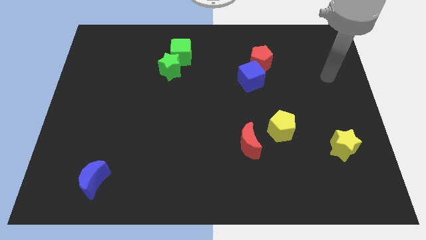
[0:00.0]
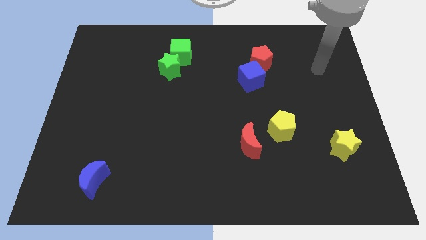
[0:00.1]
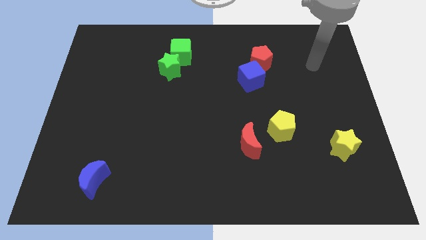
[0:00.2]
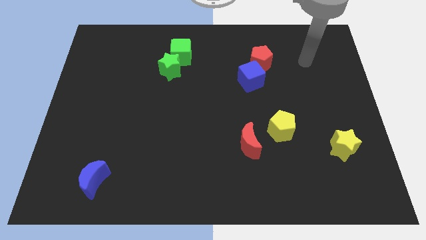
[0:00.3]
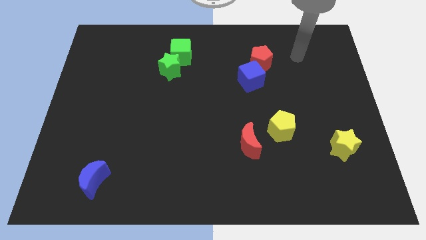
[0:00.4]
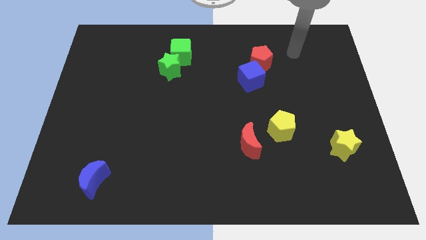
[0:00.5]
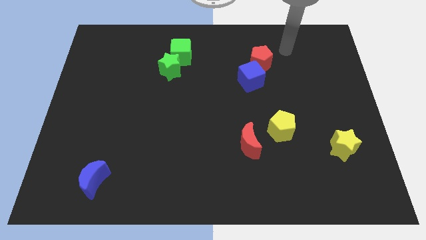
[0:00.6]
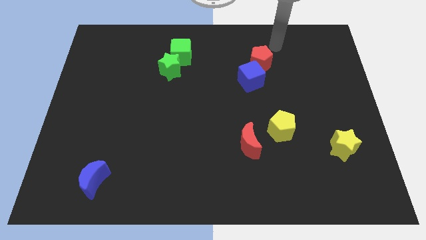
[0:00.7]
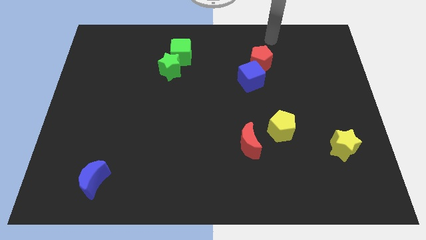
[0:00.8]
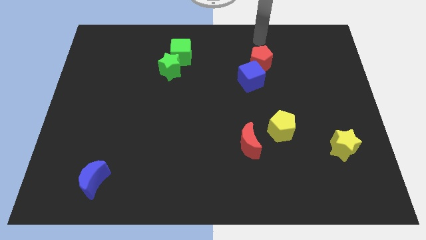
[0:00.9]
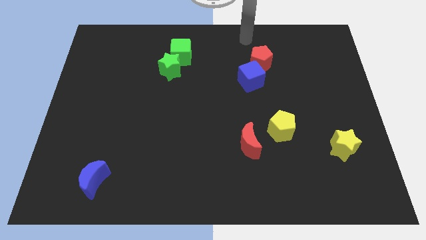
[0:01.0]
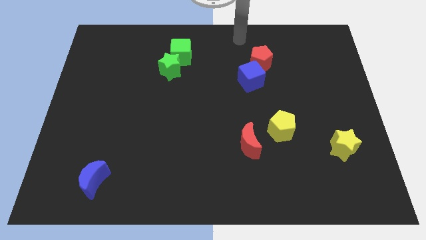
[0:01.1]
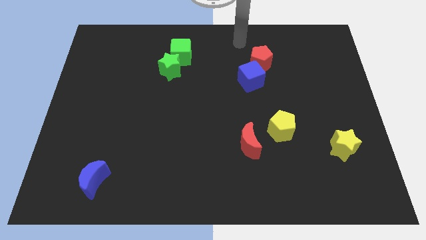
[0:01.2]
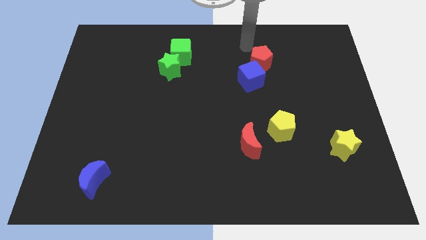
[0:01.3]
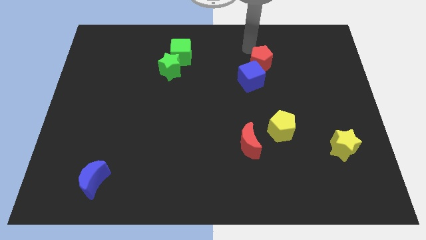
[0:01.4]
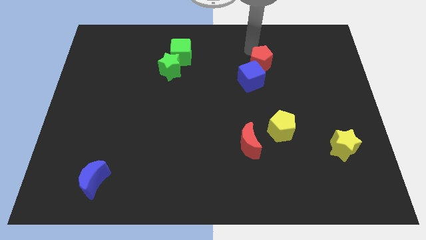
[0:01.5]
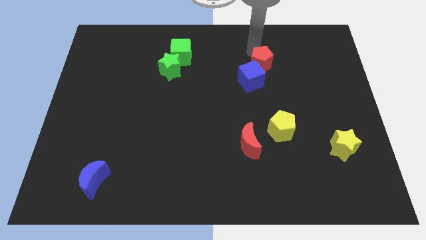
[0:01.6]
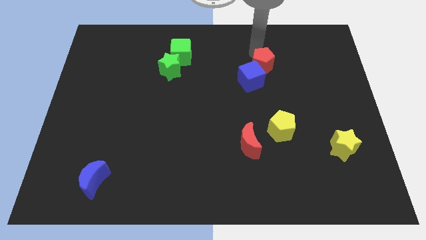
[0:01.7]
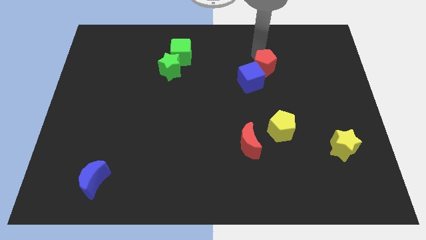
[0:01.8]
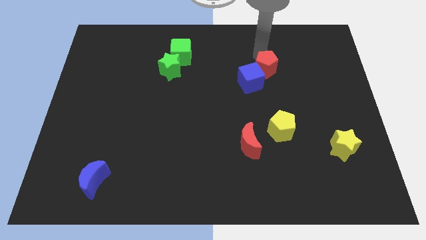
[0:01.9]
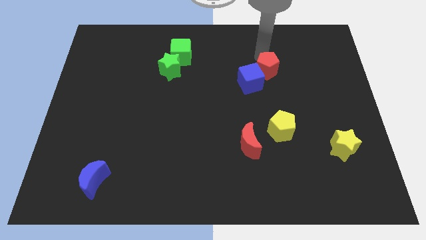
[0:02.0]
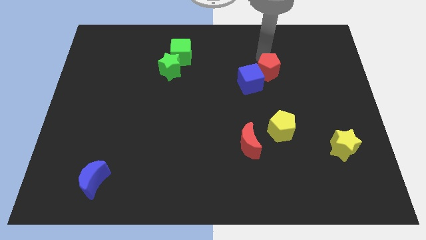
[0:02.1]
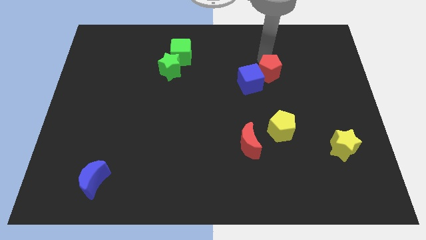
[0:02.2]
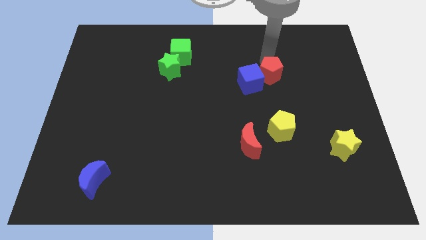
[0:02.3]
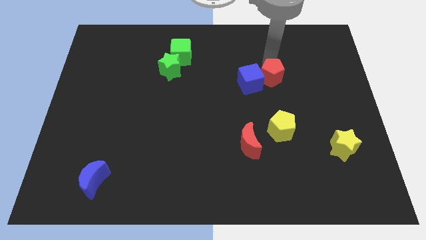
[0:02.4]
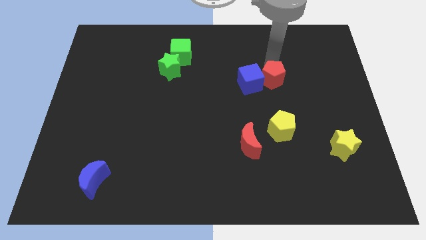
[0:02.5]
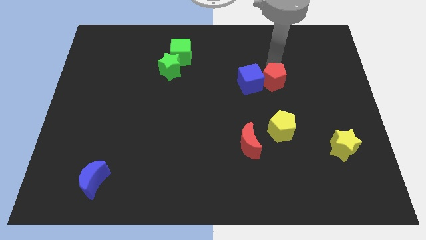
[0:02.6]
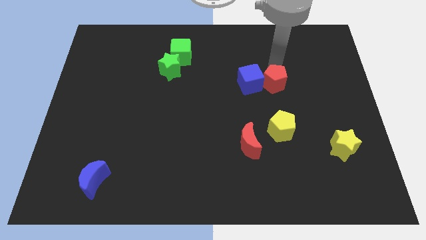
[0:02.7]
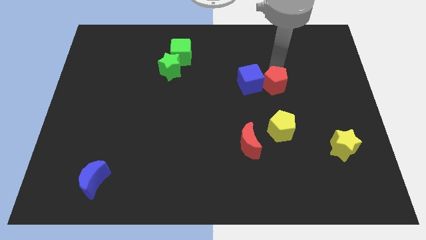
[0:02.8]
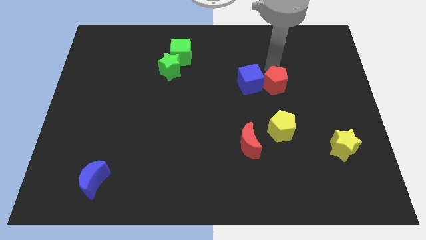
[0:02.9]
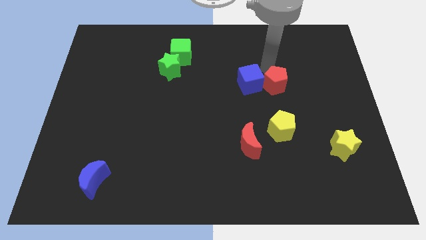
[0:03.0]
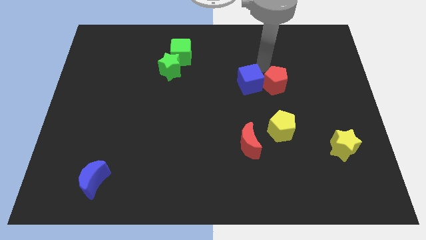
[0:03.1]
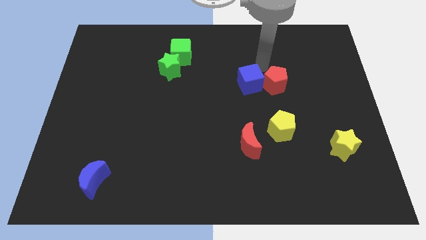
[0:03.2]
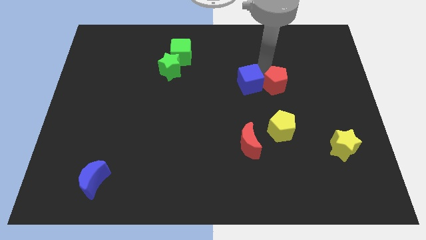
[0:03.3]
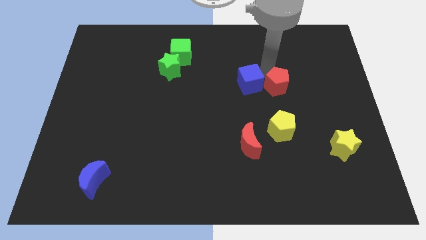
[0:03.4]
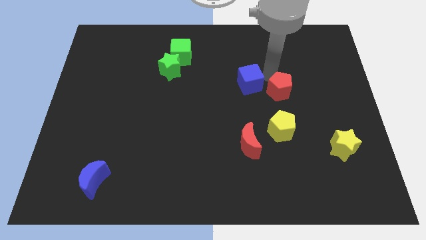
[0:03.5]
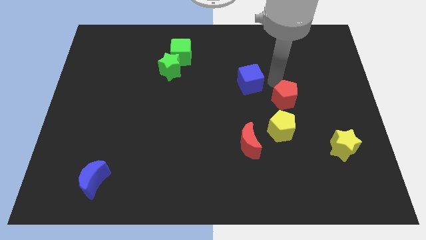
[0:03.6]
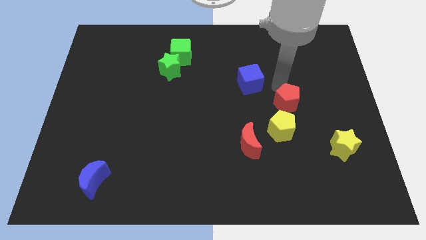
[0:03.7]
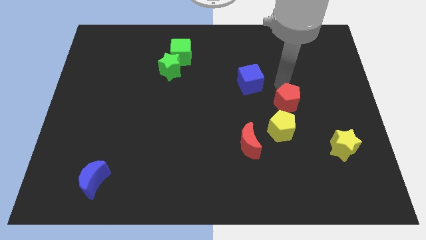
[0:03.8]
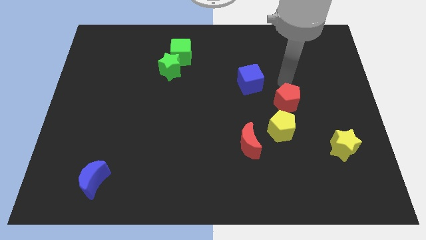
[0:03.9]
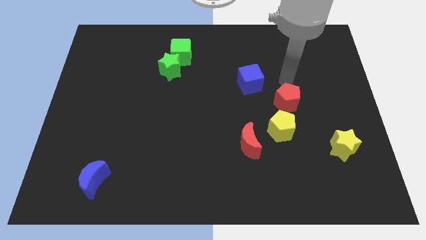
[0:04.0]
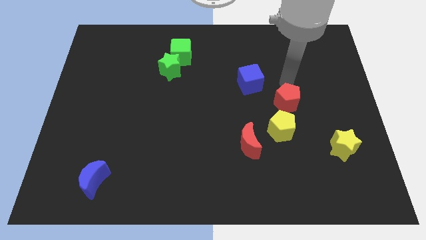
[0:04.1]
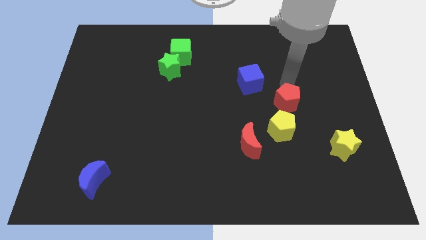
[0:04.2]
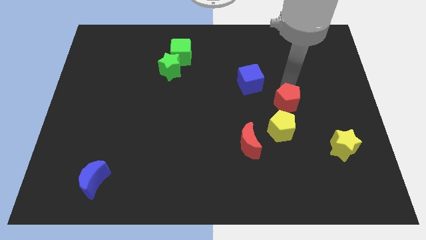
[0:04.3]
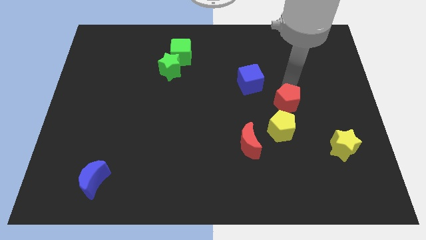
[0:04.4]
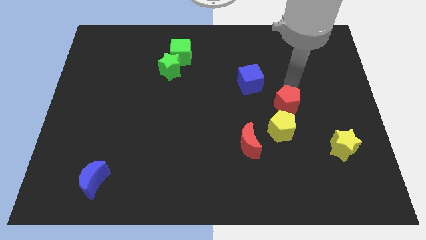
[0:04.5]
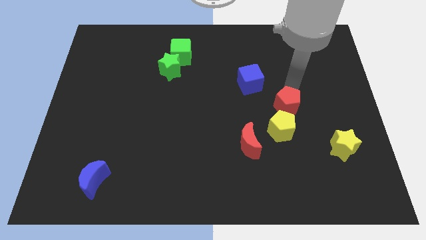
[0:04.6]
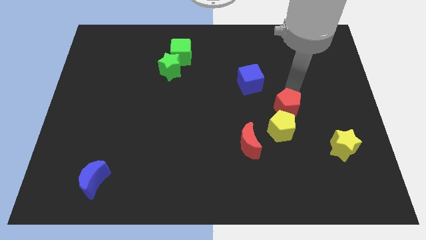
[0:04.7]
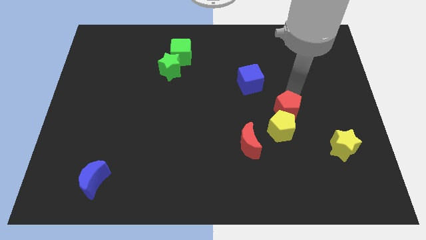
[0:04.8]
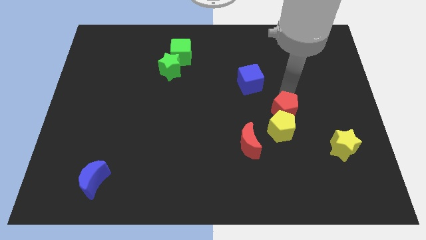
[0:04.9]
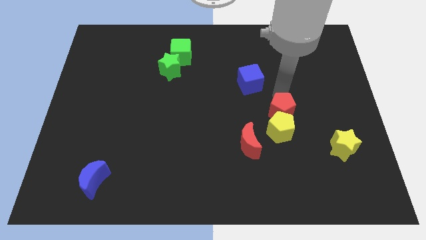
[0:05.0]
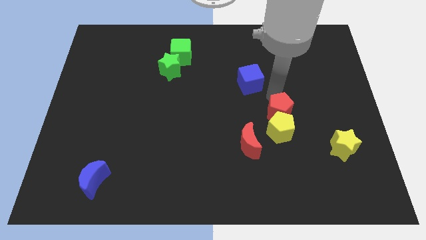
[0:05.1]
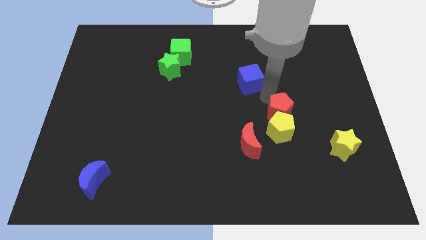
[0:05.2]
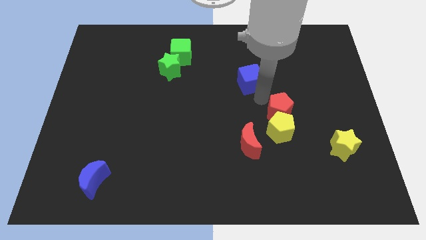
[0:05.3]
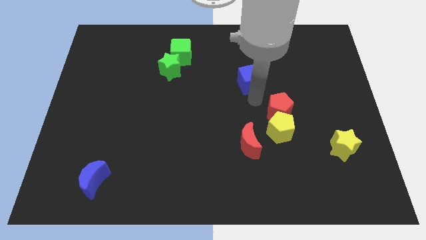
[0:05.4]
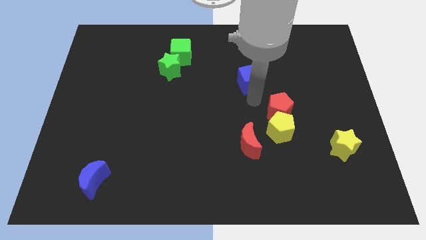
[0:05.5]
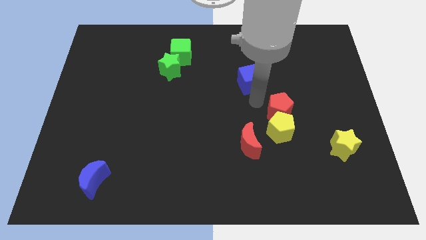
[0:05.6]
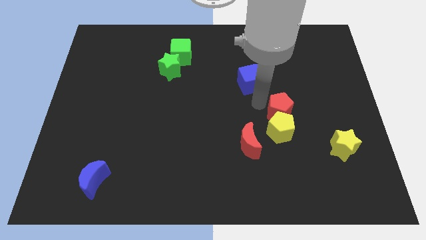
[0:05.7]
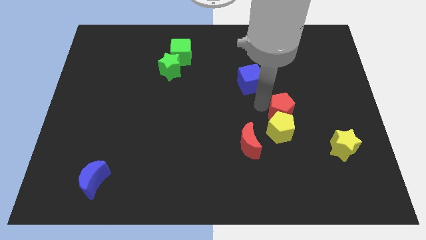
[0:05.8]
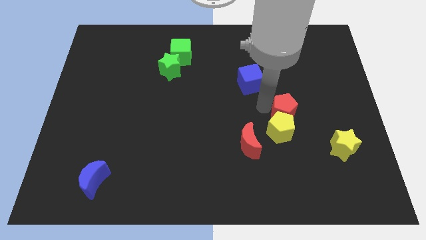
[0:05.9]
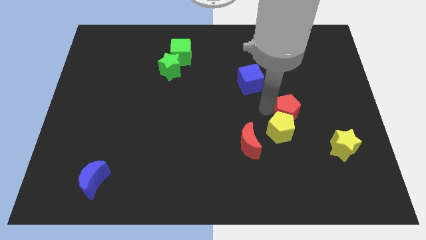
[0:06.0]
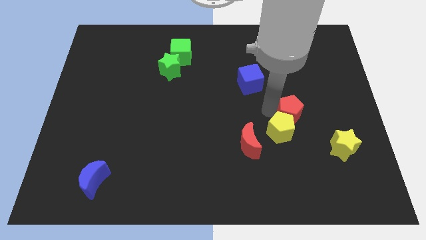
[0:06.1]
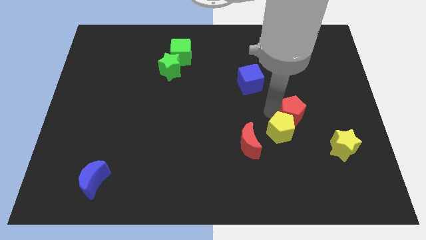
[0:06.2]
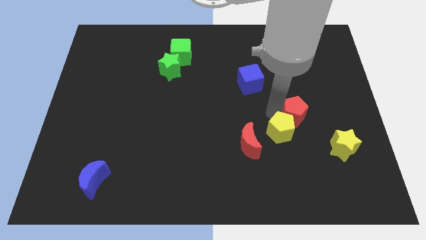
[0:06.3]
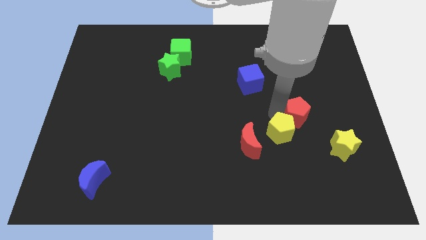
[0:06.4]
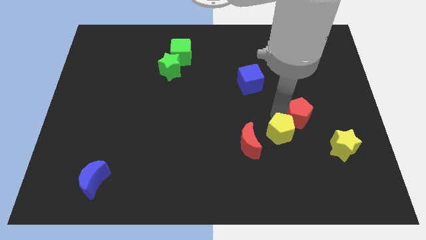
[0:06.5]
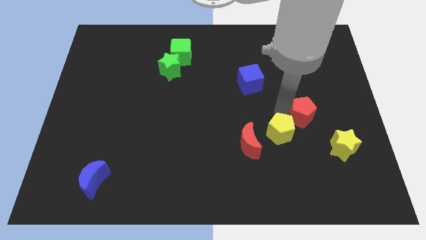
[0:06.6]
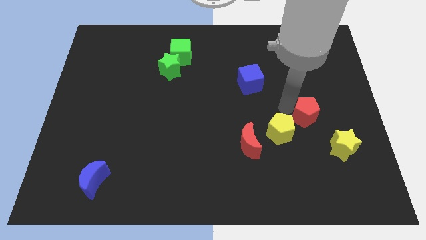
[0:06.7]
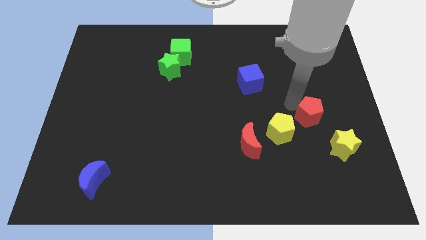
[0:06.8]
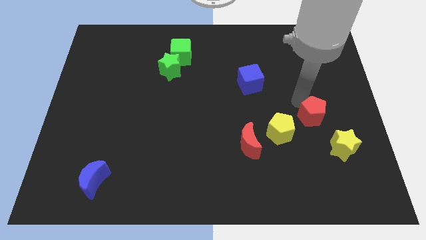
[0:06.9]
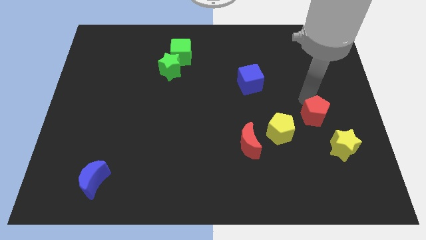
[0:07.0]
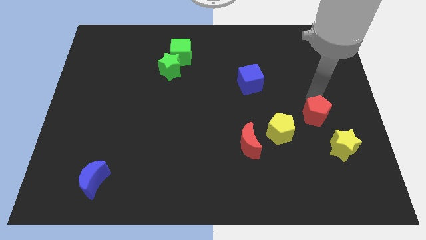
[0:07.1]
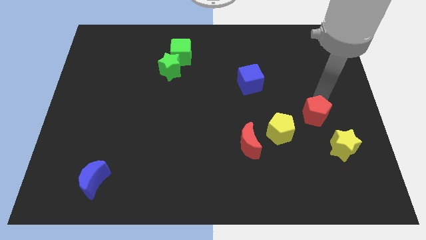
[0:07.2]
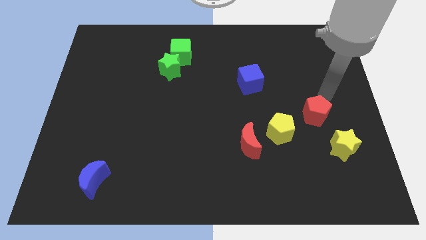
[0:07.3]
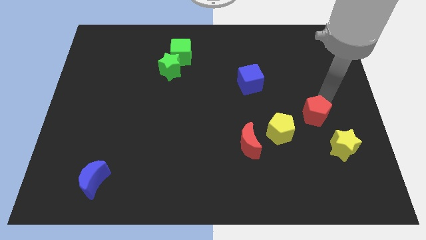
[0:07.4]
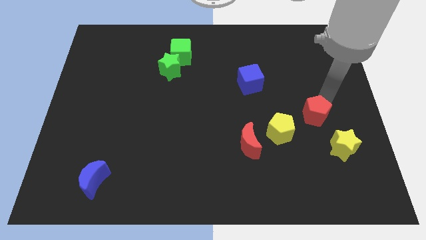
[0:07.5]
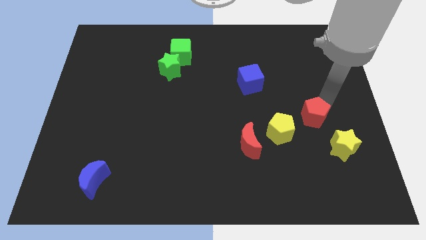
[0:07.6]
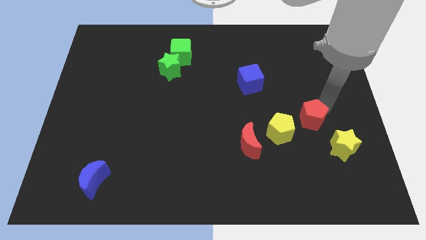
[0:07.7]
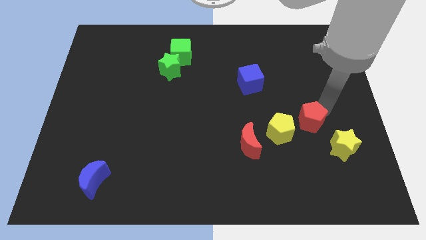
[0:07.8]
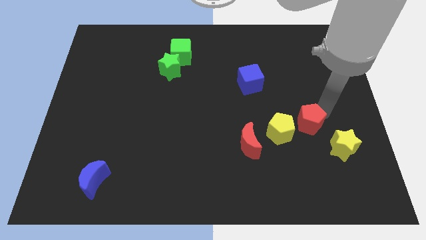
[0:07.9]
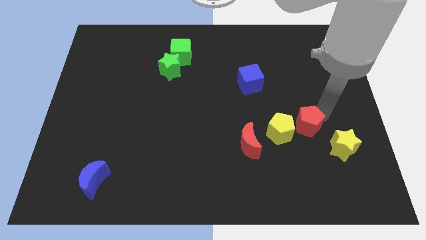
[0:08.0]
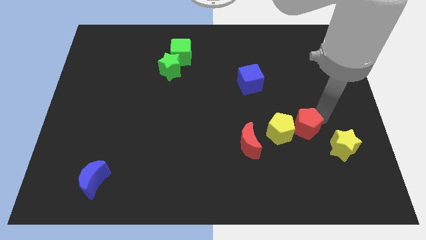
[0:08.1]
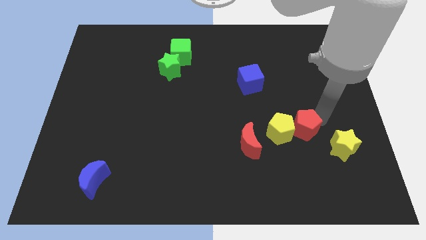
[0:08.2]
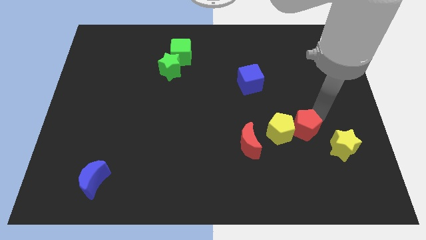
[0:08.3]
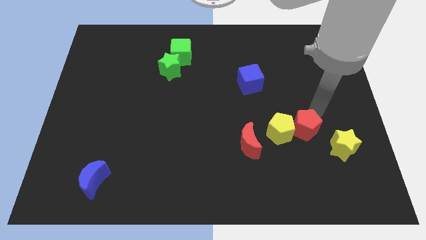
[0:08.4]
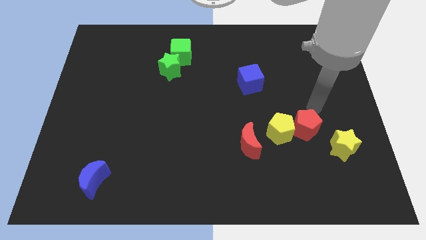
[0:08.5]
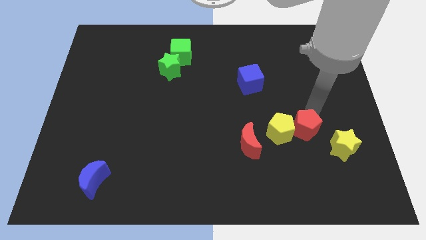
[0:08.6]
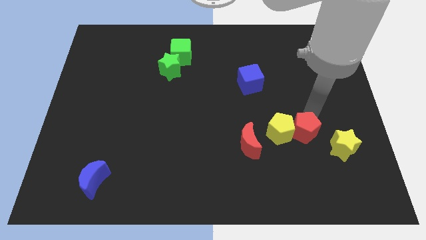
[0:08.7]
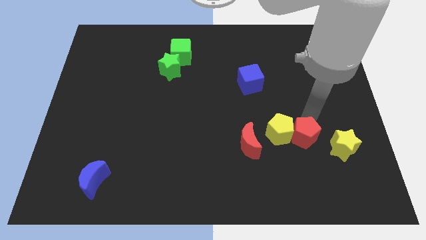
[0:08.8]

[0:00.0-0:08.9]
push the red pentagon down
